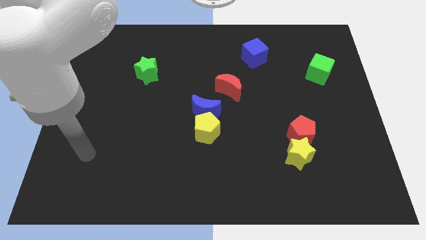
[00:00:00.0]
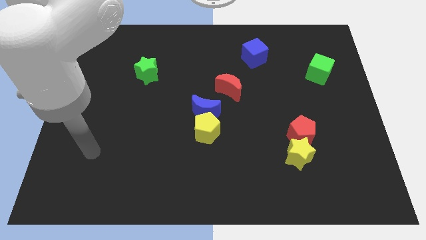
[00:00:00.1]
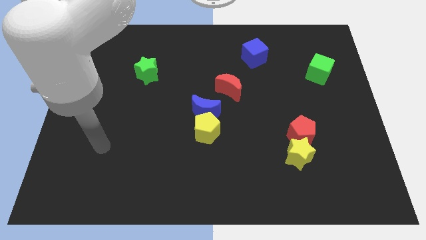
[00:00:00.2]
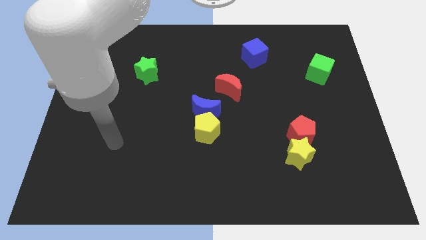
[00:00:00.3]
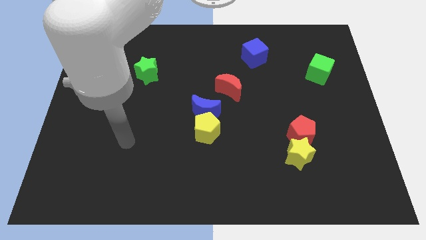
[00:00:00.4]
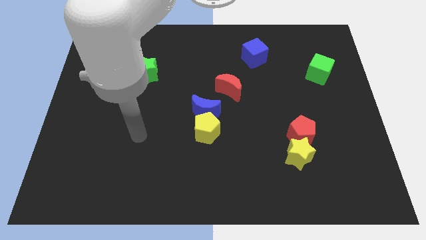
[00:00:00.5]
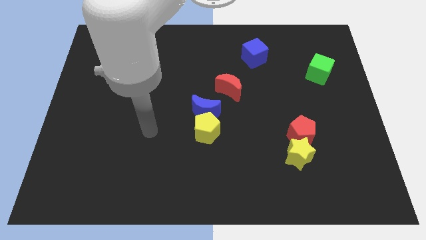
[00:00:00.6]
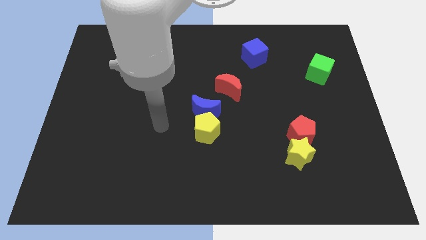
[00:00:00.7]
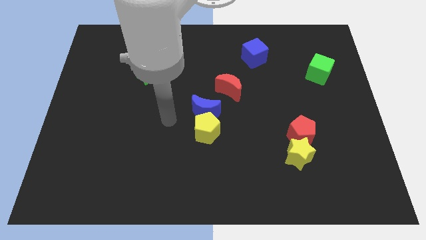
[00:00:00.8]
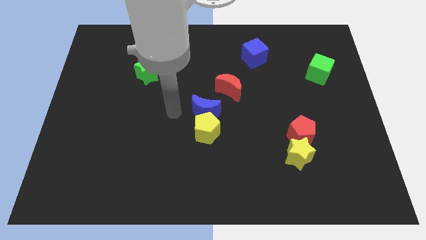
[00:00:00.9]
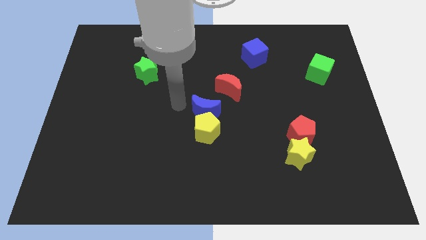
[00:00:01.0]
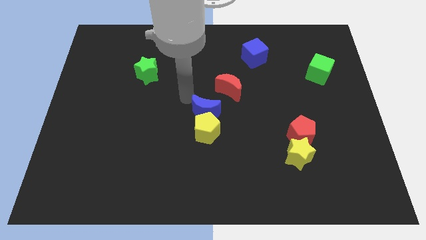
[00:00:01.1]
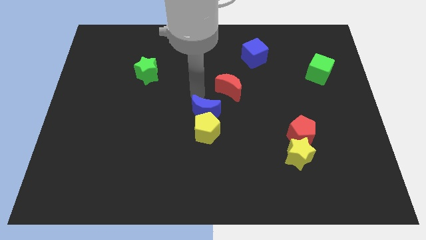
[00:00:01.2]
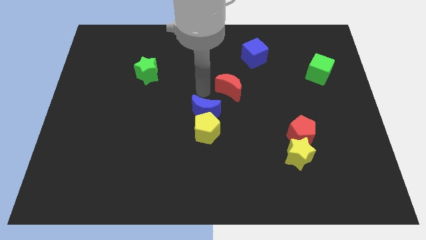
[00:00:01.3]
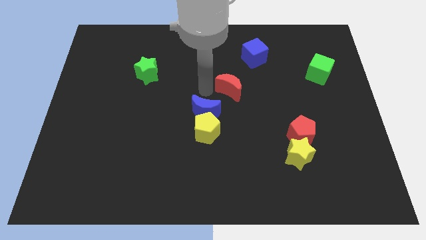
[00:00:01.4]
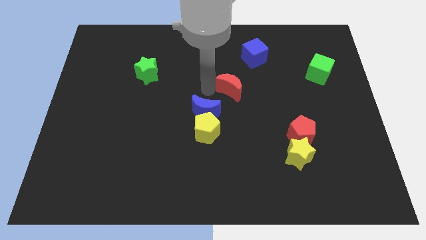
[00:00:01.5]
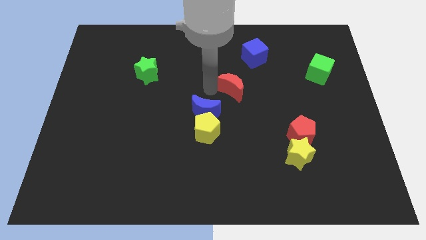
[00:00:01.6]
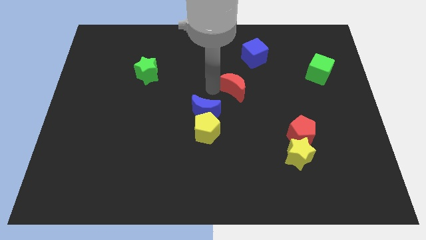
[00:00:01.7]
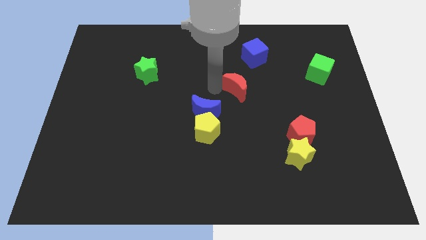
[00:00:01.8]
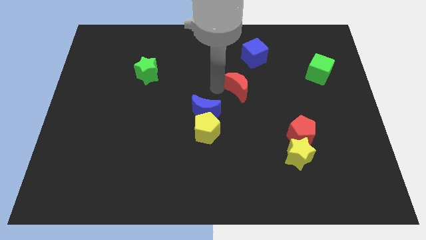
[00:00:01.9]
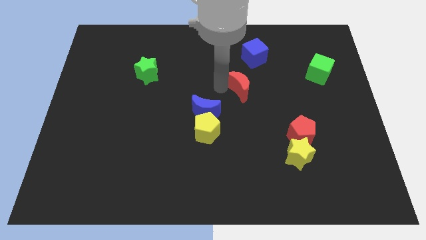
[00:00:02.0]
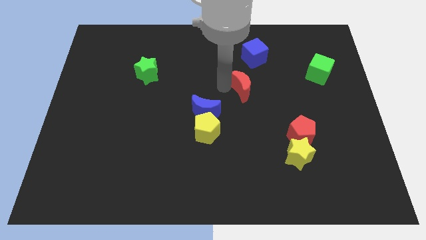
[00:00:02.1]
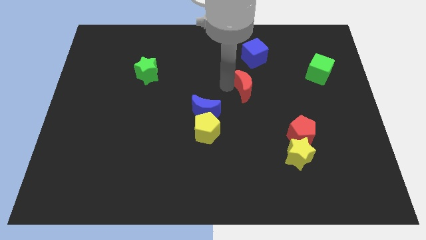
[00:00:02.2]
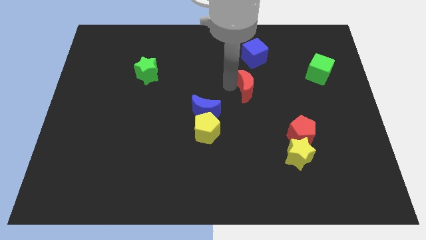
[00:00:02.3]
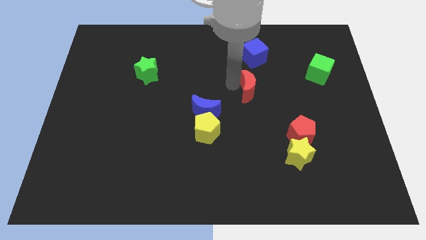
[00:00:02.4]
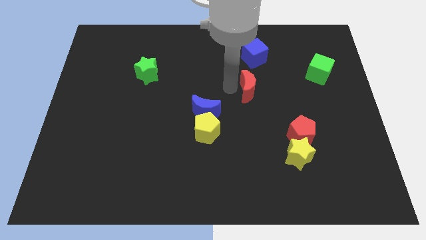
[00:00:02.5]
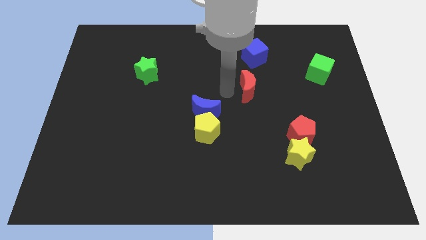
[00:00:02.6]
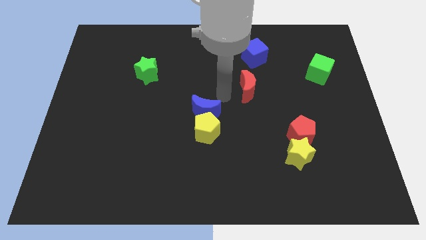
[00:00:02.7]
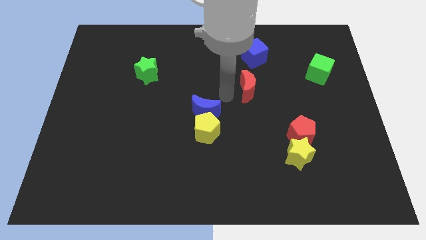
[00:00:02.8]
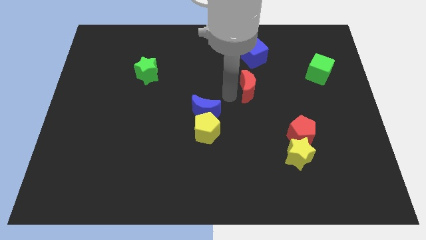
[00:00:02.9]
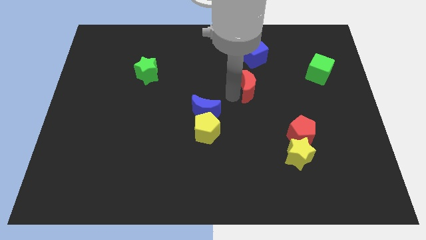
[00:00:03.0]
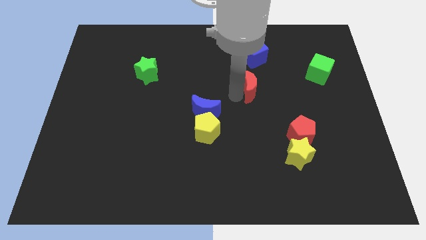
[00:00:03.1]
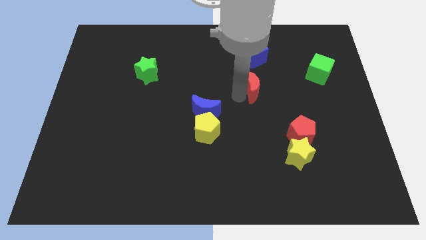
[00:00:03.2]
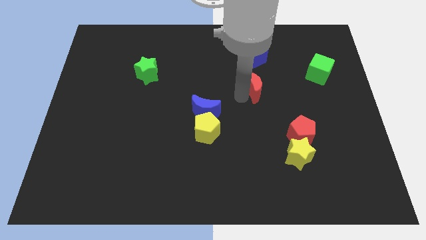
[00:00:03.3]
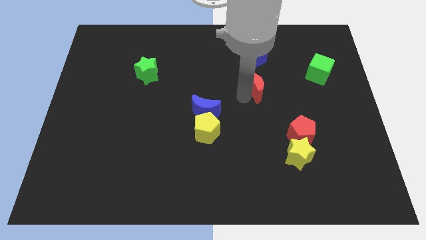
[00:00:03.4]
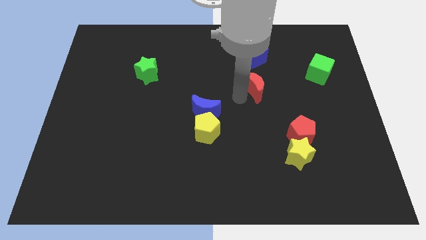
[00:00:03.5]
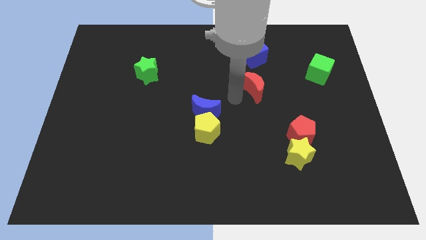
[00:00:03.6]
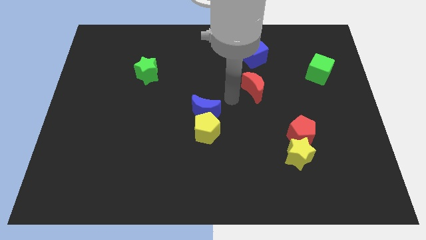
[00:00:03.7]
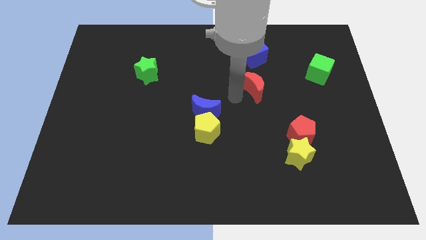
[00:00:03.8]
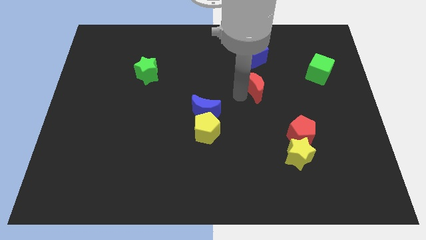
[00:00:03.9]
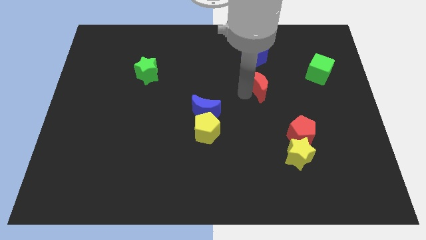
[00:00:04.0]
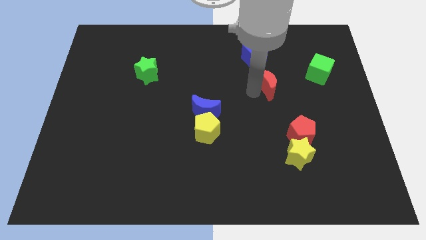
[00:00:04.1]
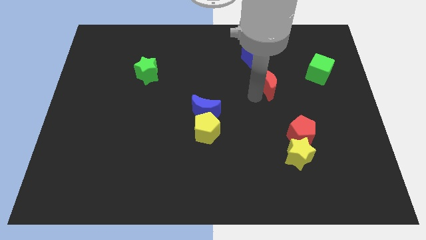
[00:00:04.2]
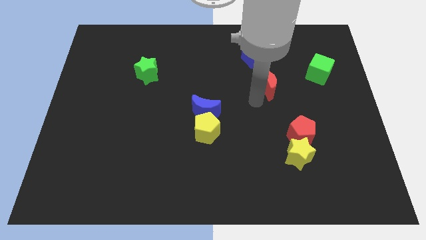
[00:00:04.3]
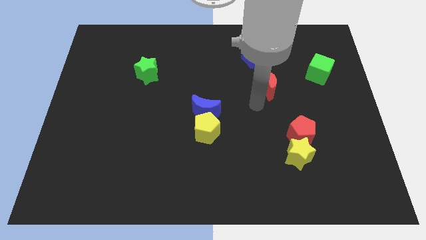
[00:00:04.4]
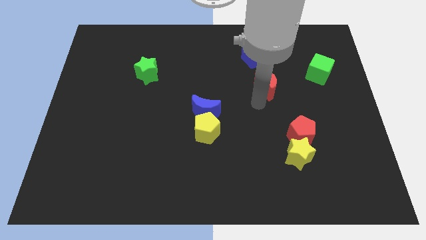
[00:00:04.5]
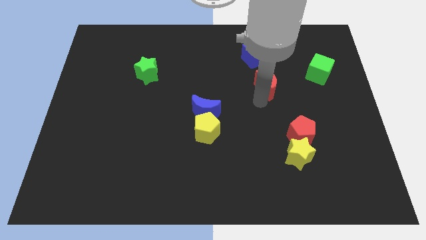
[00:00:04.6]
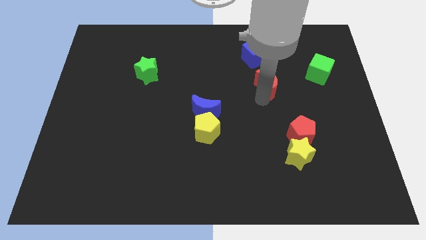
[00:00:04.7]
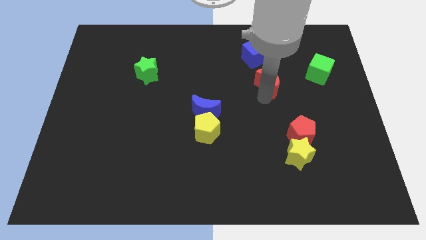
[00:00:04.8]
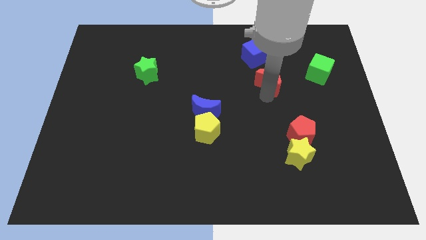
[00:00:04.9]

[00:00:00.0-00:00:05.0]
put the red moon to the bottom right side of the blue cube

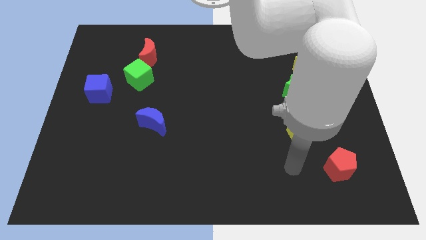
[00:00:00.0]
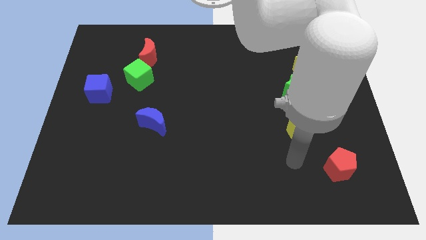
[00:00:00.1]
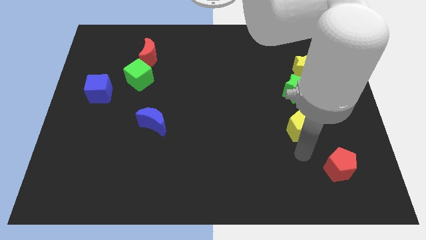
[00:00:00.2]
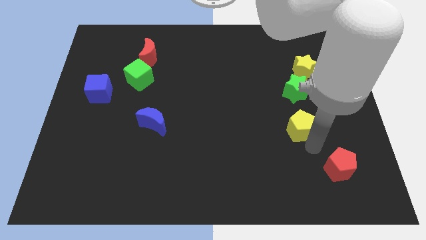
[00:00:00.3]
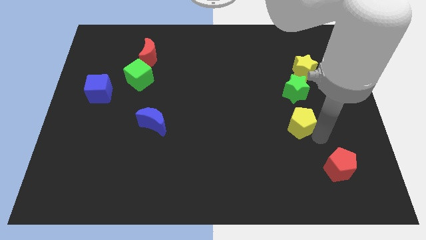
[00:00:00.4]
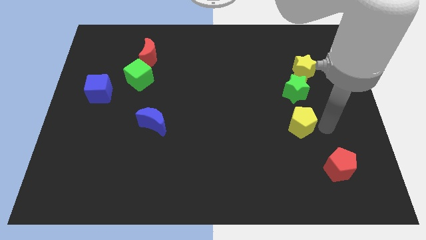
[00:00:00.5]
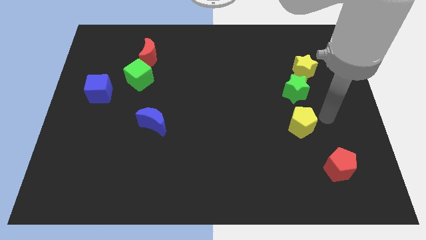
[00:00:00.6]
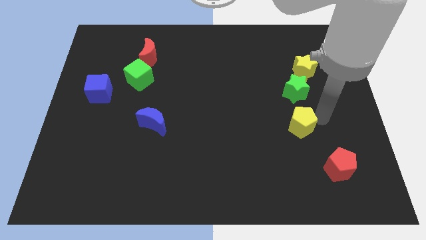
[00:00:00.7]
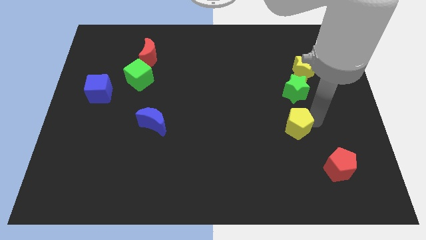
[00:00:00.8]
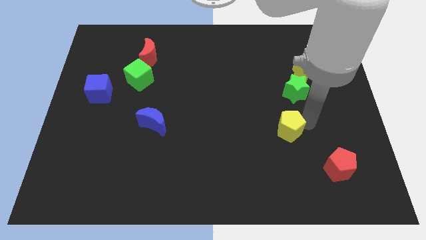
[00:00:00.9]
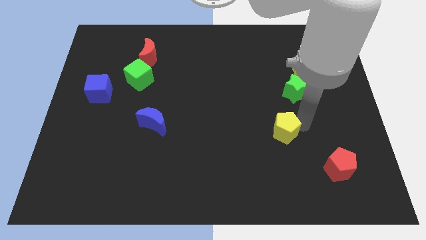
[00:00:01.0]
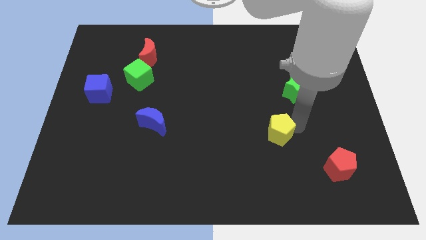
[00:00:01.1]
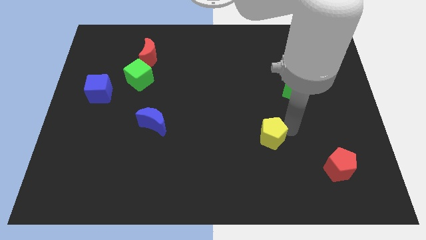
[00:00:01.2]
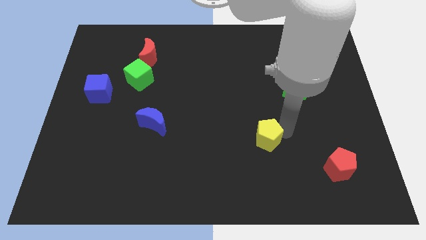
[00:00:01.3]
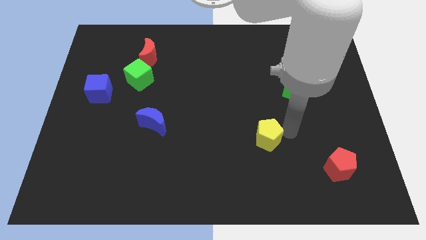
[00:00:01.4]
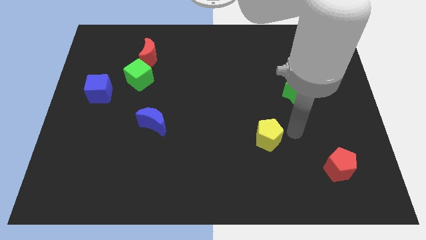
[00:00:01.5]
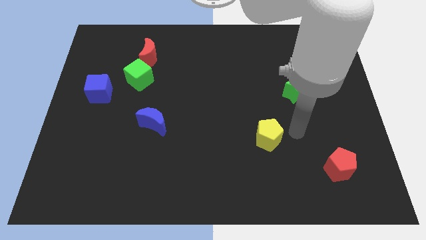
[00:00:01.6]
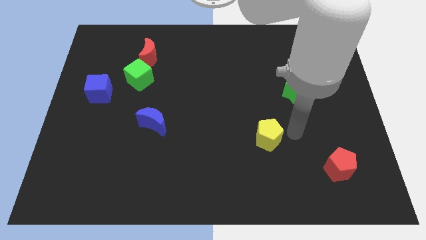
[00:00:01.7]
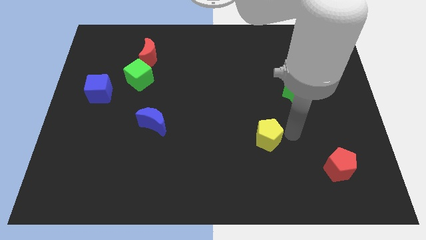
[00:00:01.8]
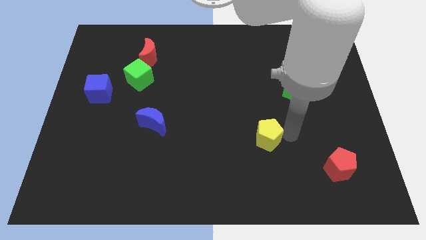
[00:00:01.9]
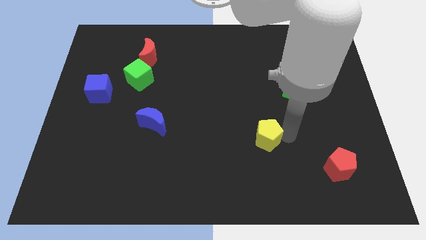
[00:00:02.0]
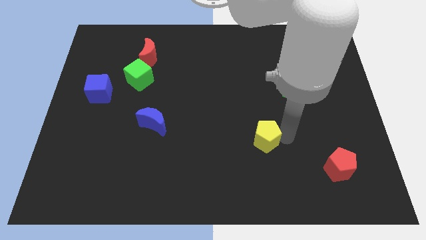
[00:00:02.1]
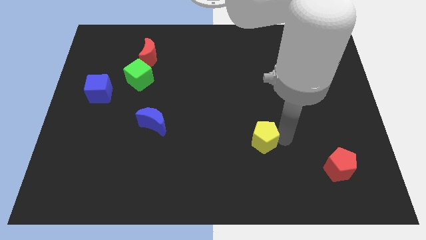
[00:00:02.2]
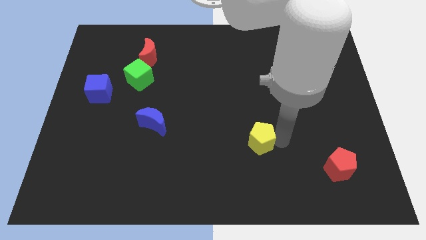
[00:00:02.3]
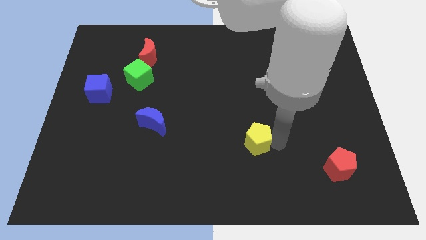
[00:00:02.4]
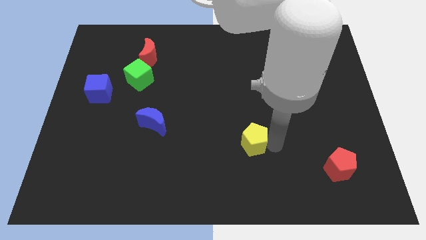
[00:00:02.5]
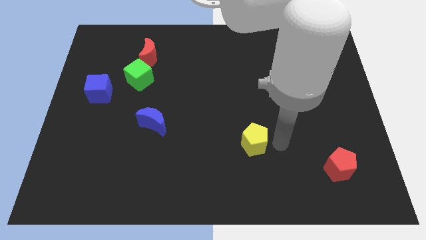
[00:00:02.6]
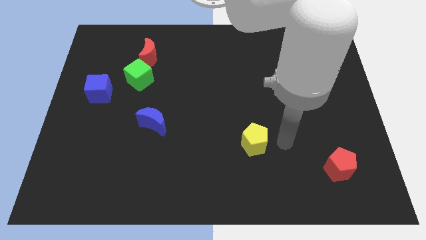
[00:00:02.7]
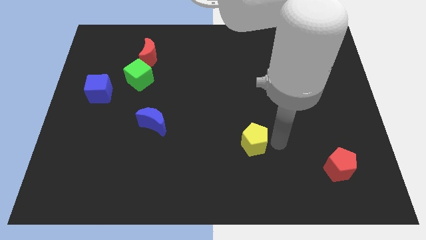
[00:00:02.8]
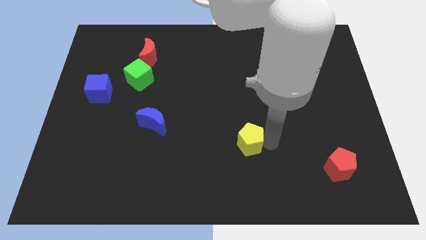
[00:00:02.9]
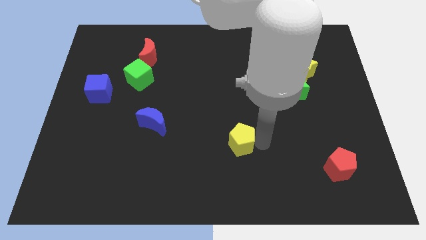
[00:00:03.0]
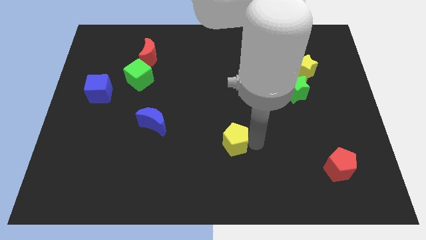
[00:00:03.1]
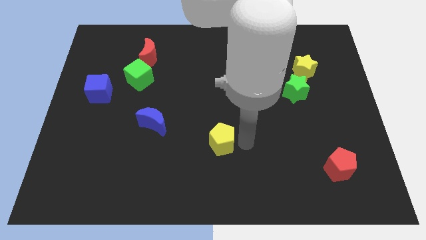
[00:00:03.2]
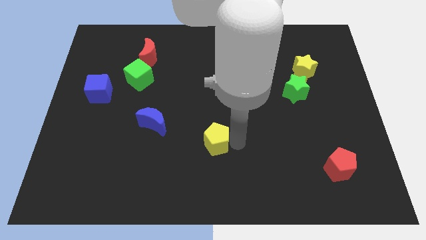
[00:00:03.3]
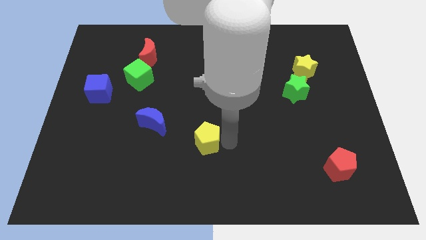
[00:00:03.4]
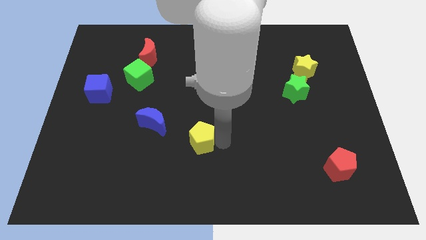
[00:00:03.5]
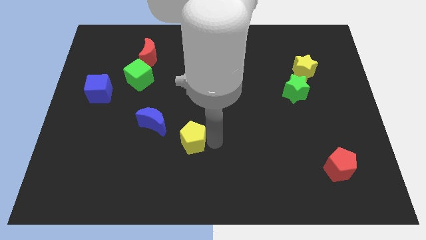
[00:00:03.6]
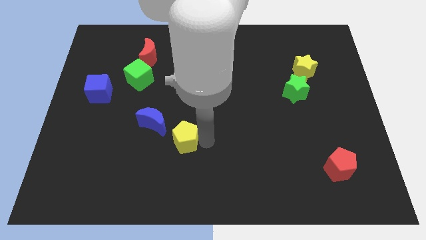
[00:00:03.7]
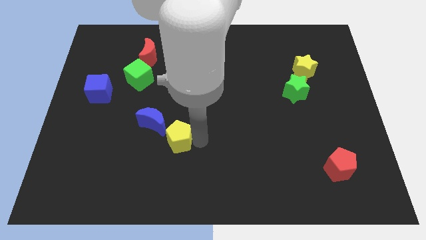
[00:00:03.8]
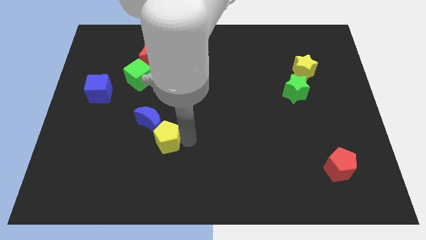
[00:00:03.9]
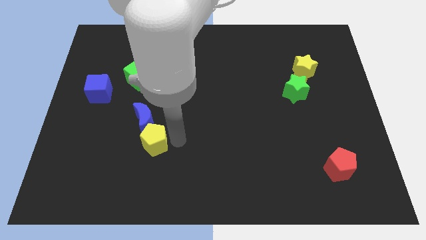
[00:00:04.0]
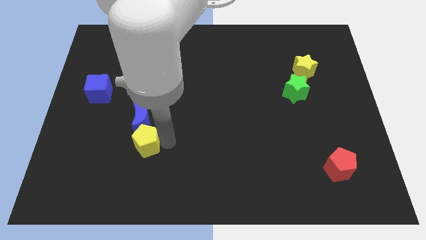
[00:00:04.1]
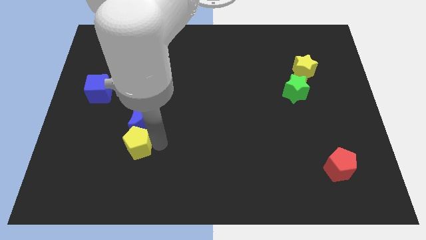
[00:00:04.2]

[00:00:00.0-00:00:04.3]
put the yellow pentagon to the bottom left of the blue moon
